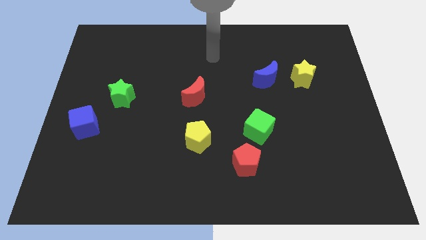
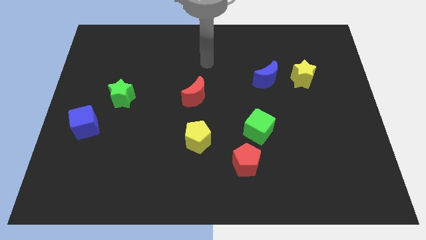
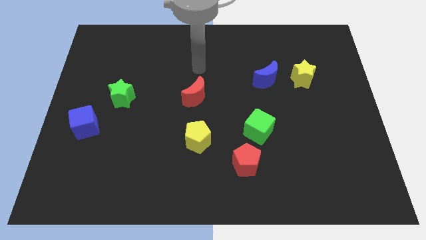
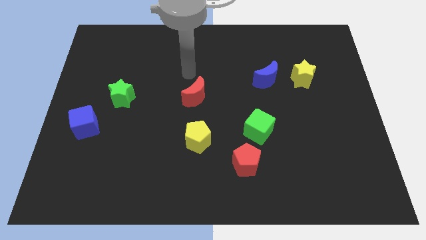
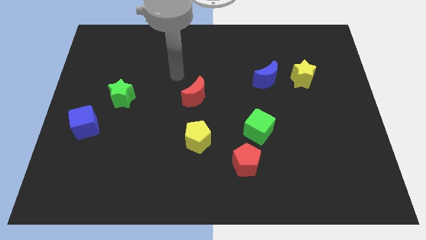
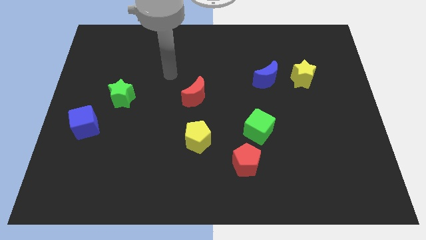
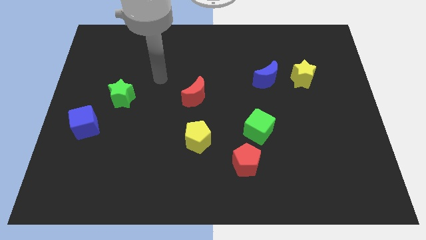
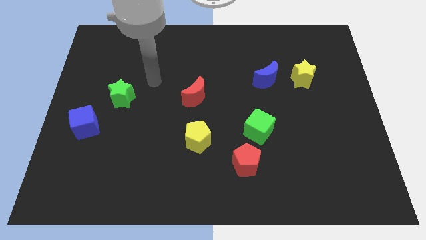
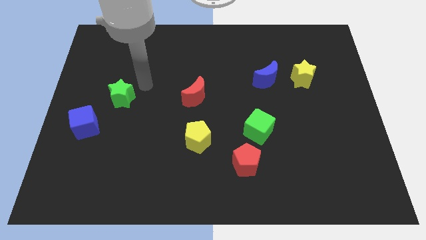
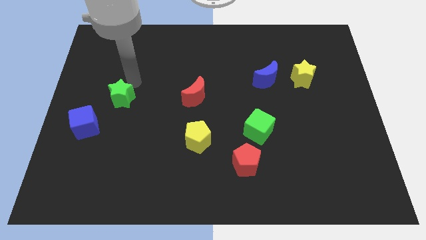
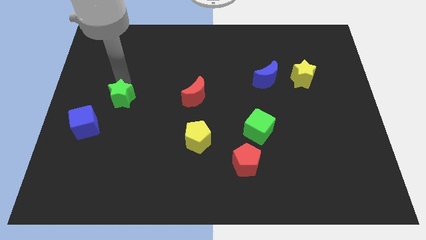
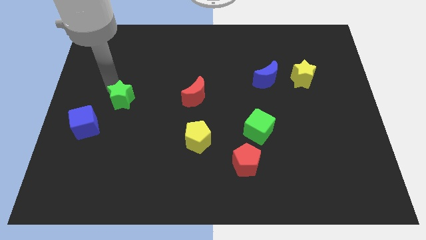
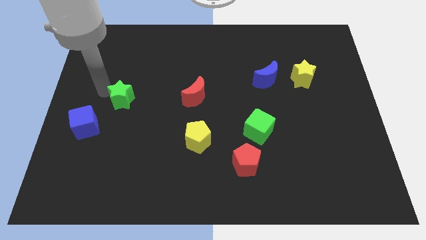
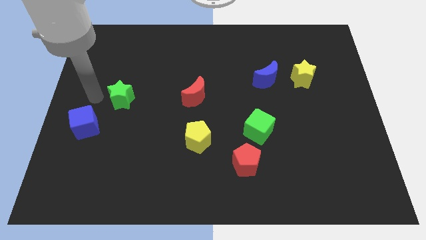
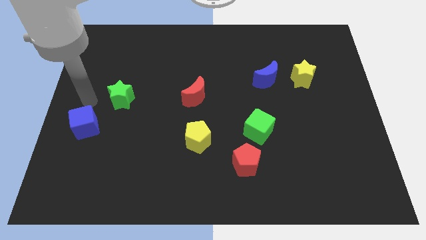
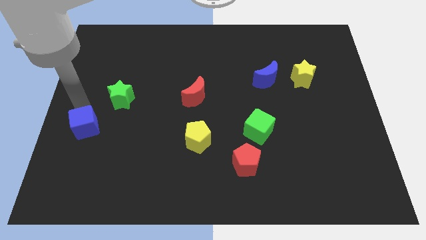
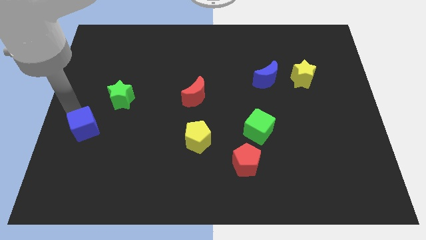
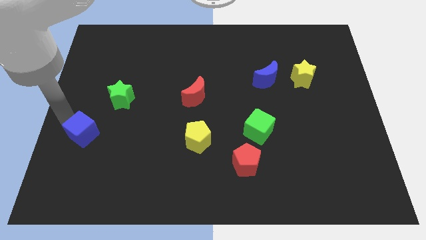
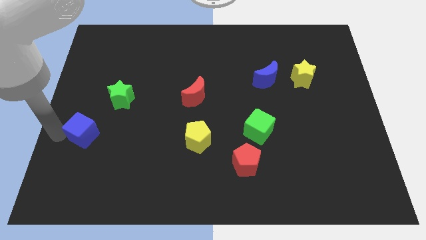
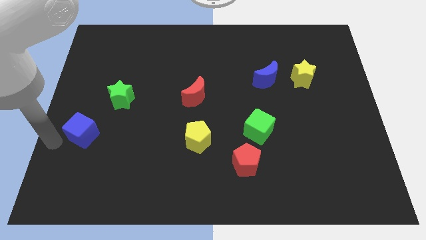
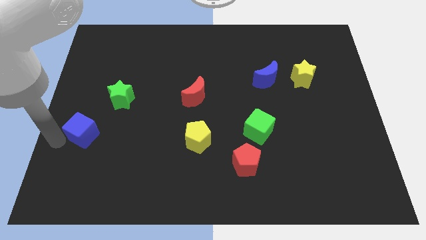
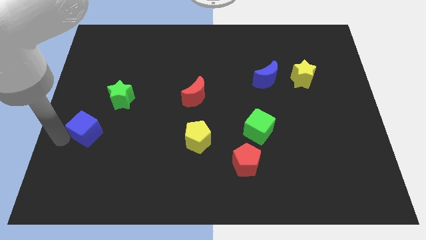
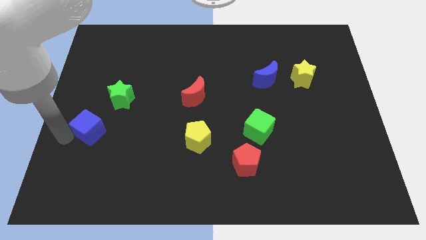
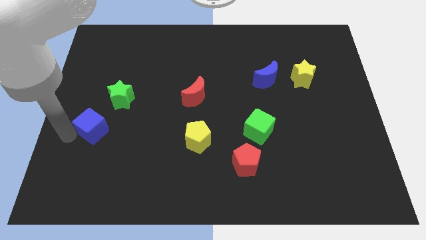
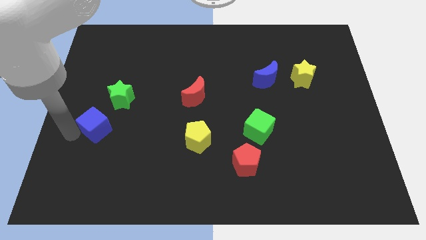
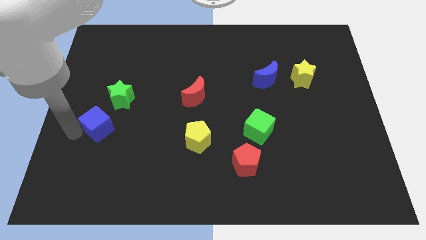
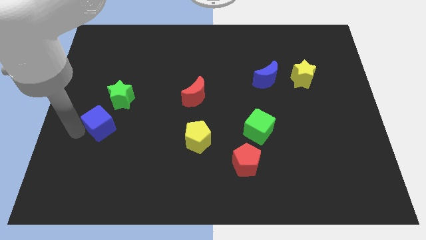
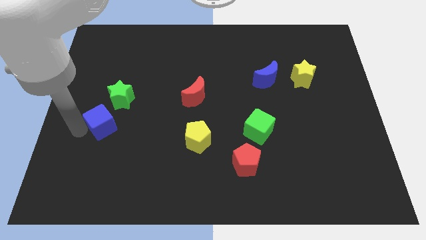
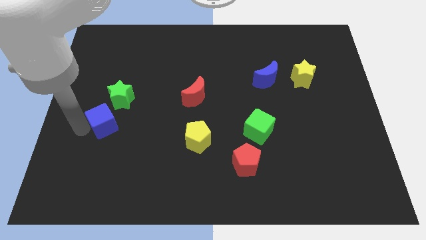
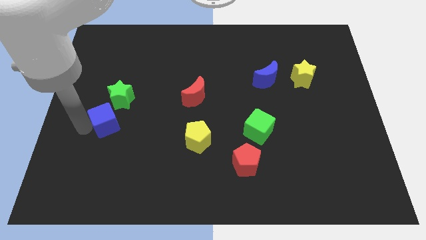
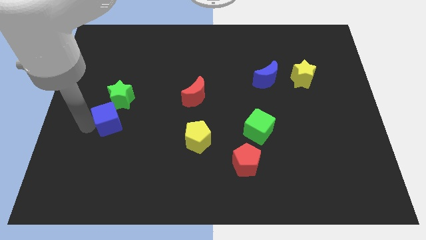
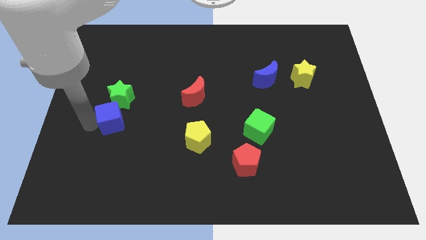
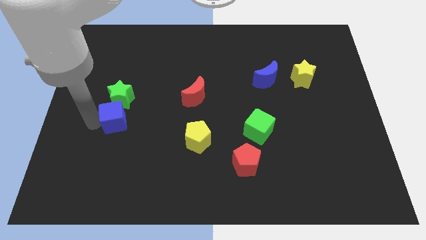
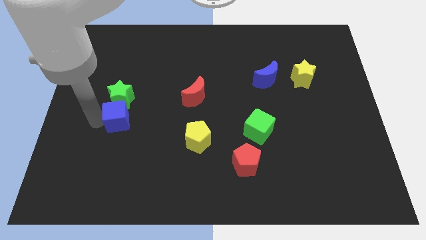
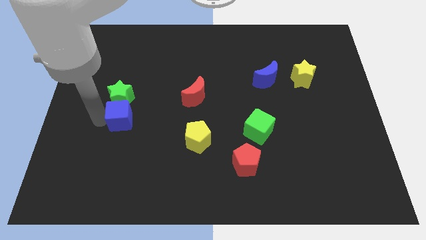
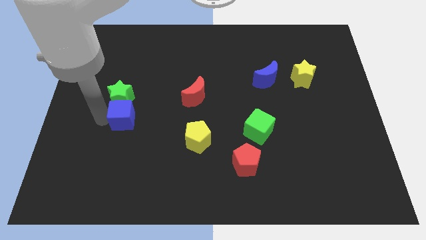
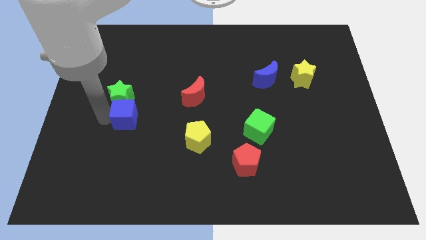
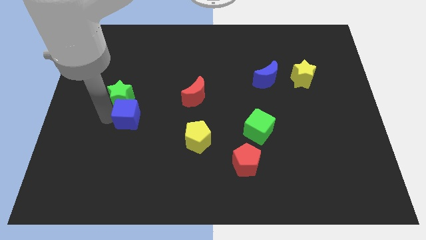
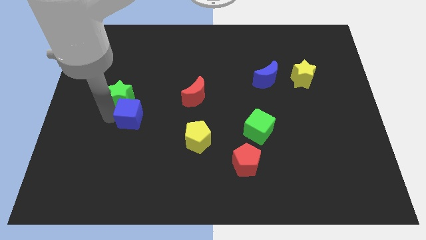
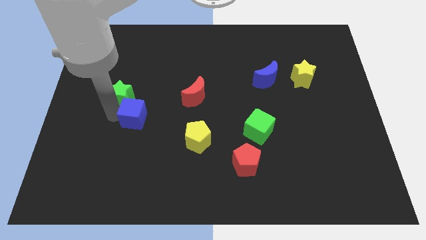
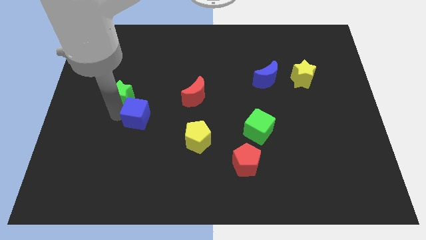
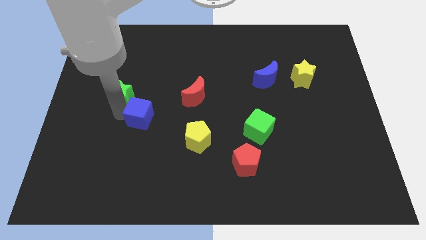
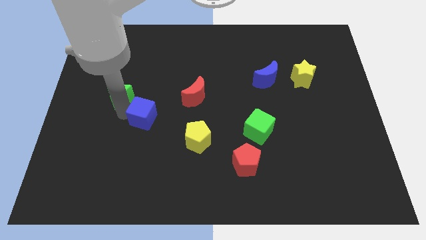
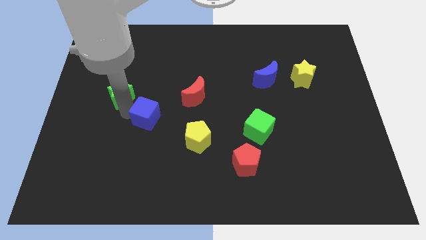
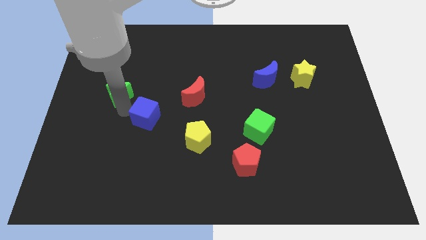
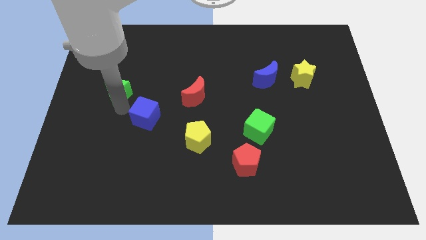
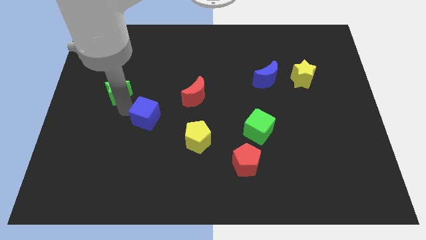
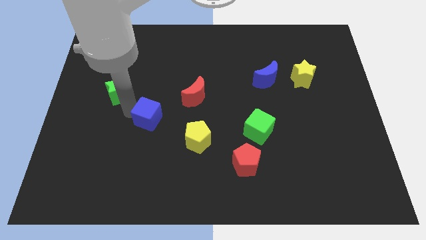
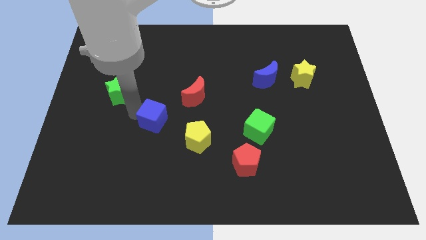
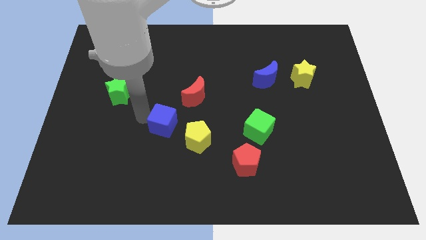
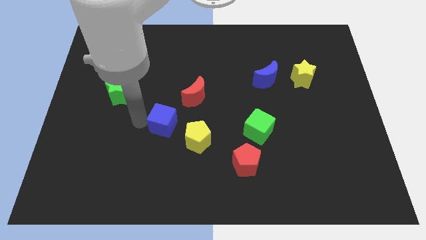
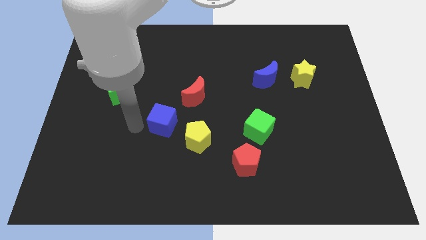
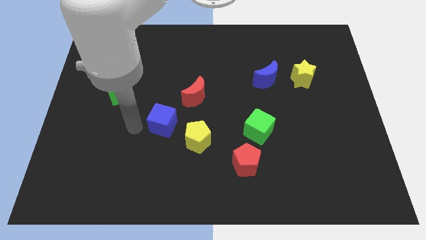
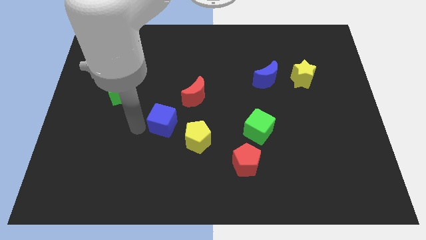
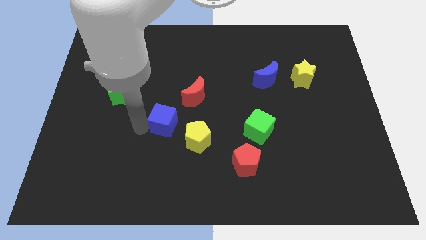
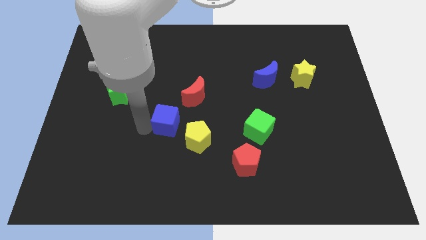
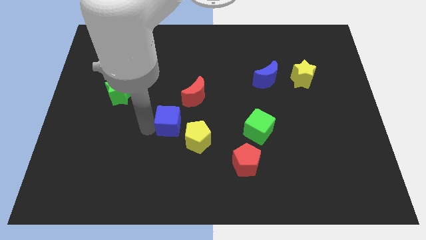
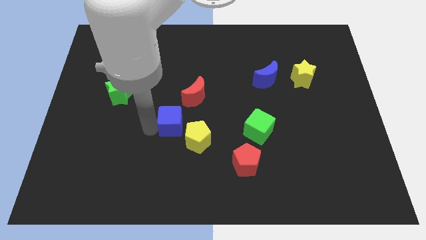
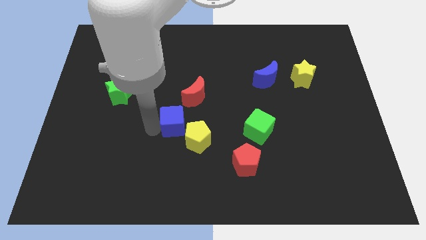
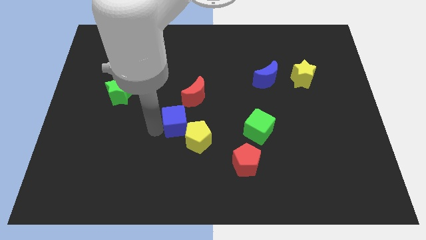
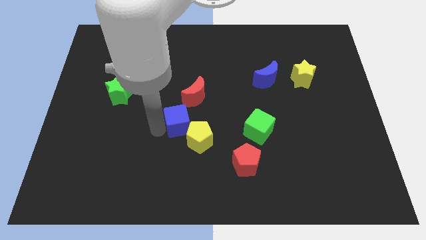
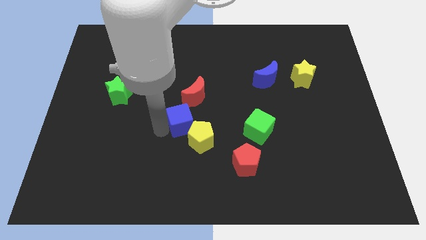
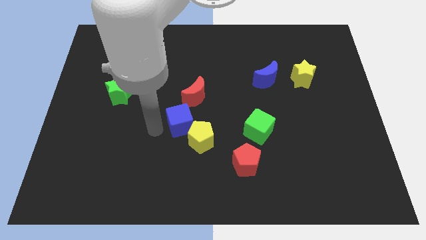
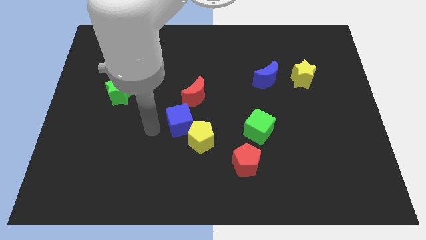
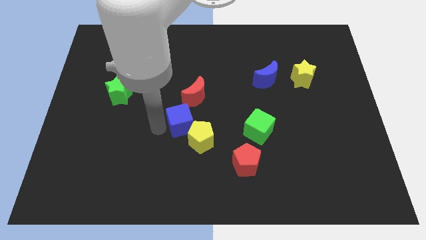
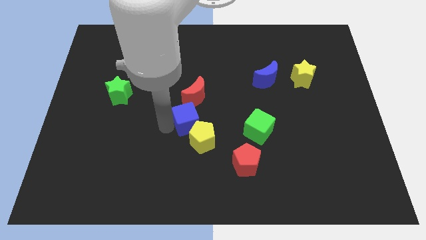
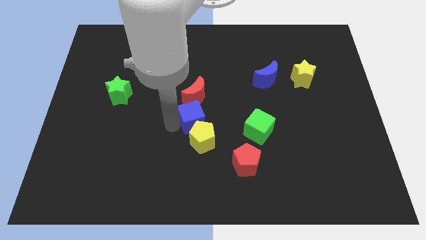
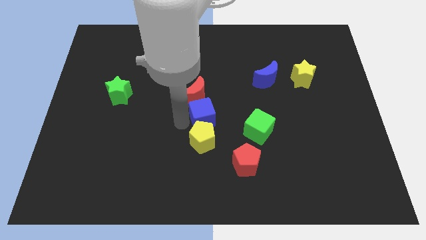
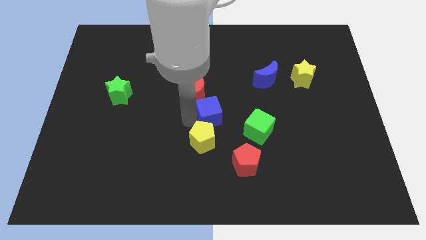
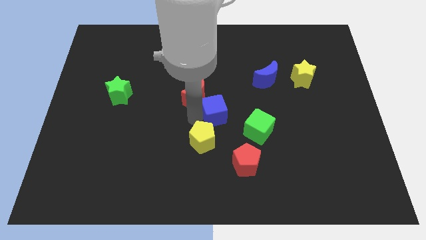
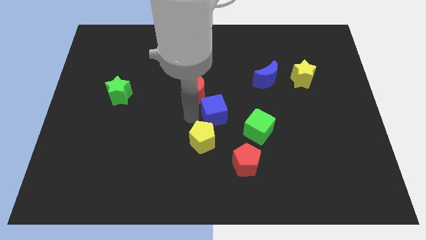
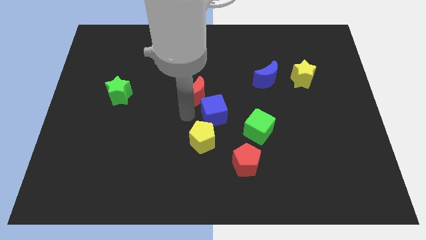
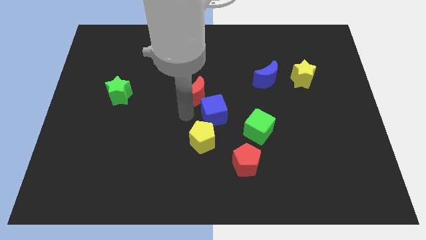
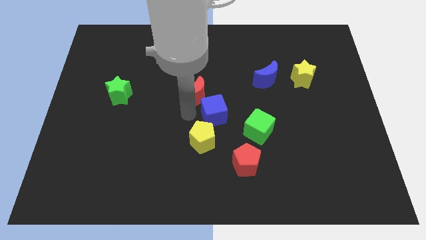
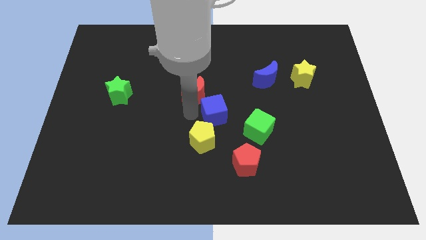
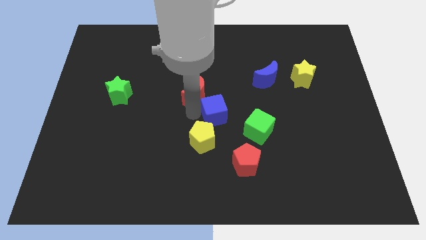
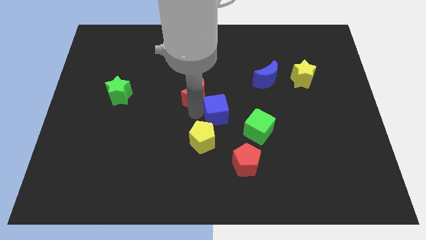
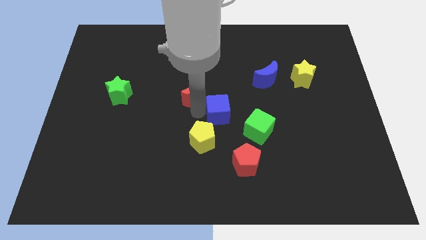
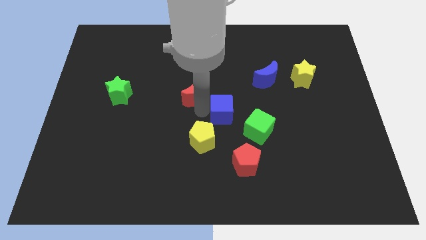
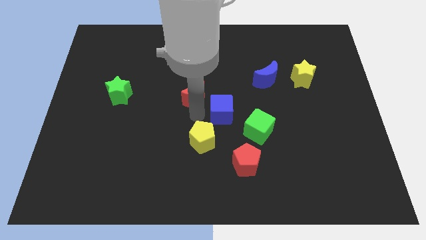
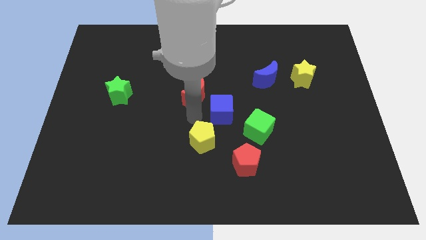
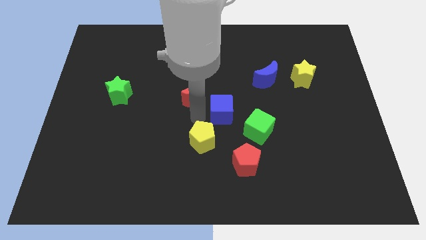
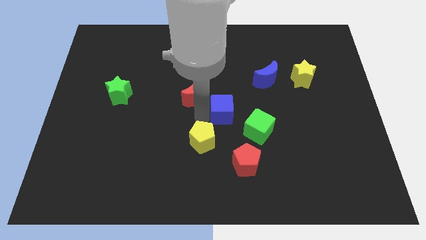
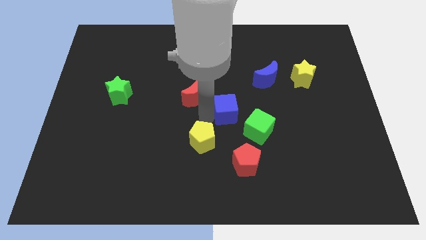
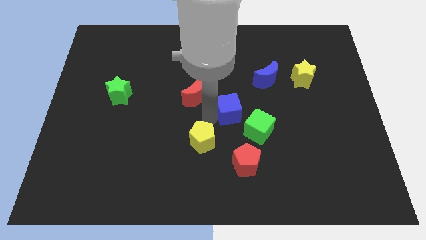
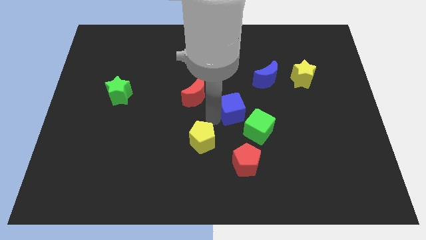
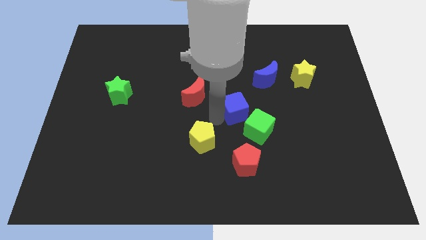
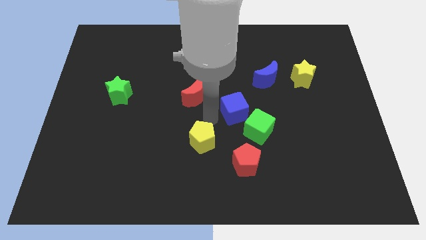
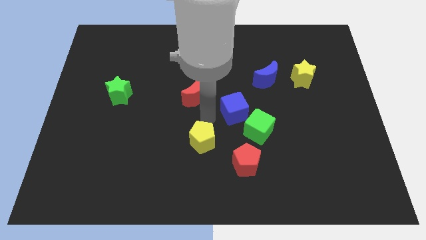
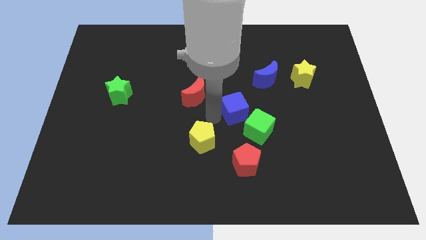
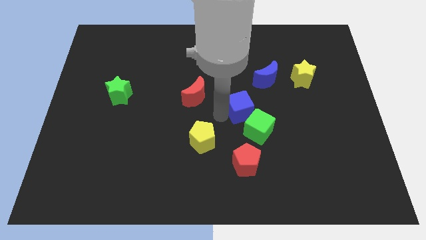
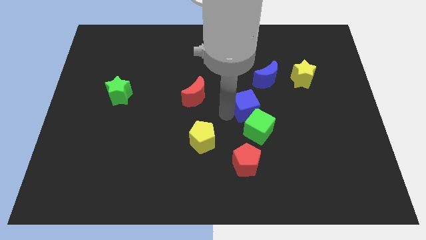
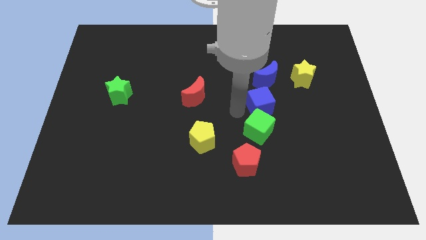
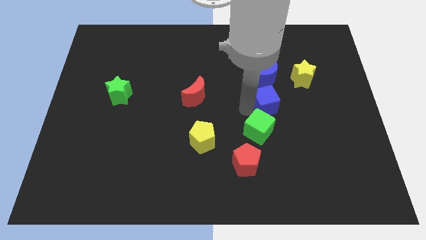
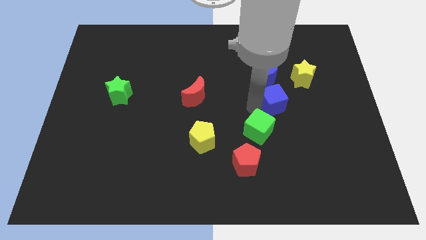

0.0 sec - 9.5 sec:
slide the blue cube diagonally down and to the right of the blue moon
